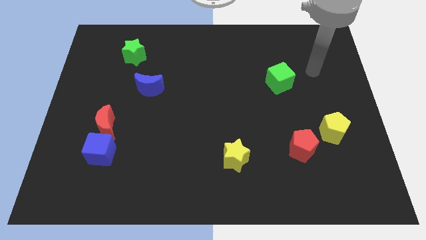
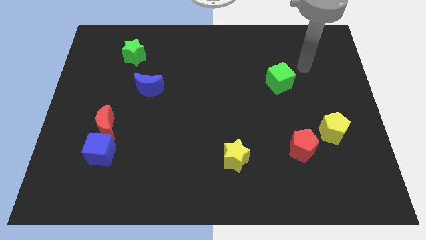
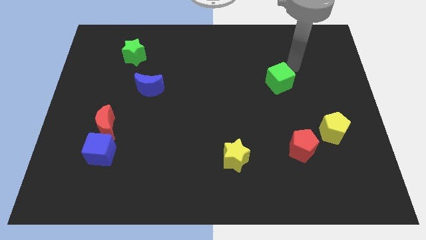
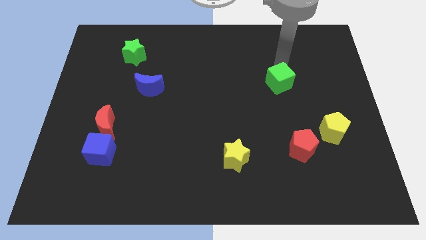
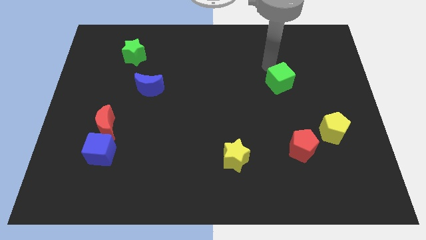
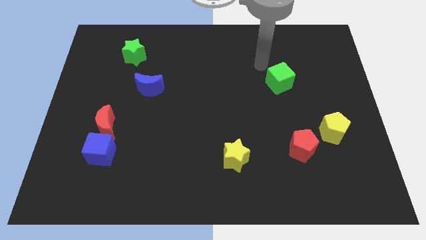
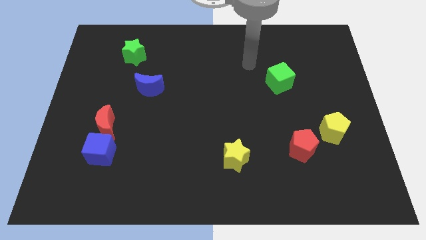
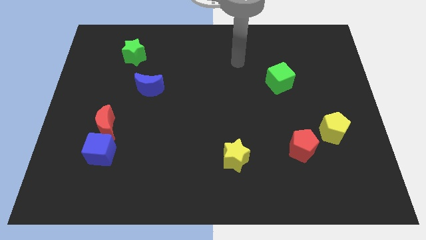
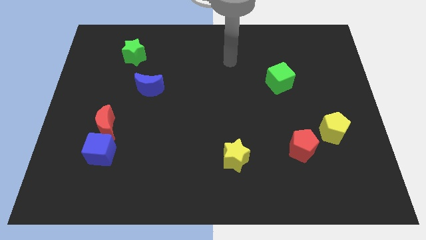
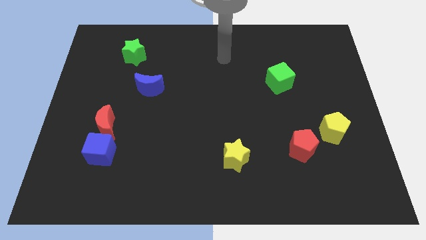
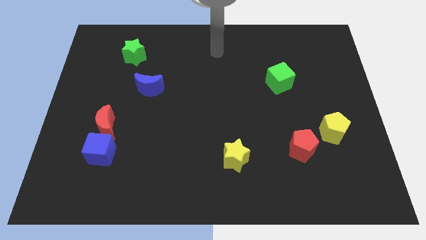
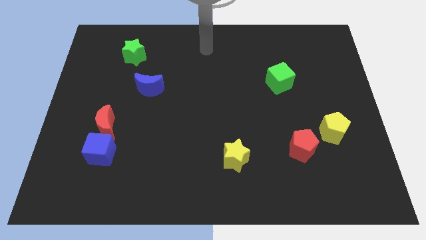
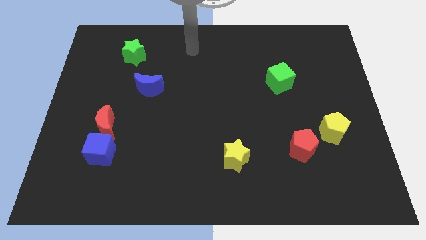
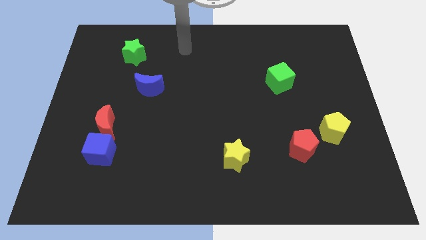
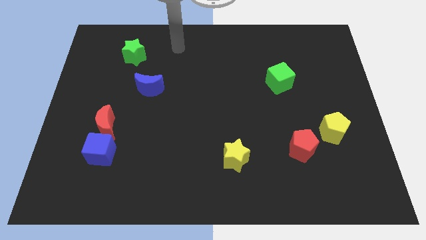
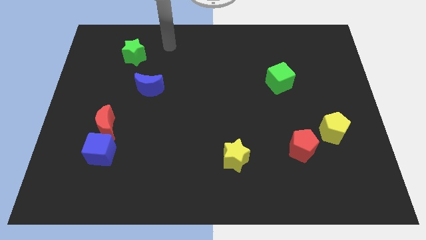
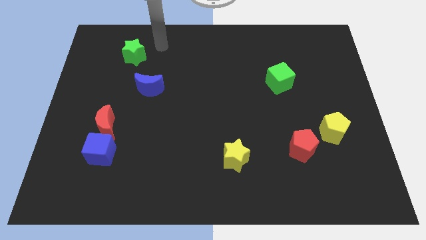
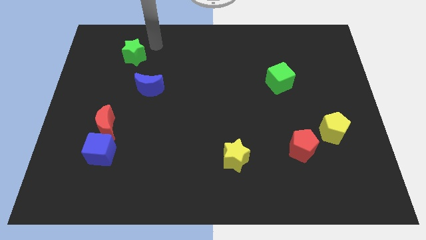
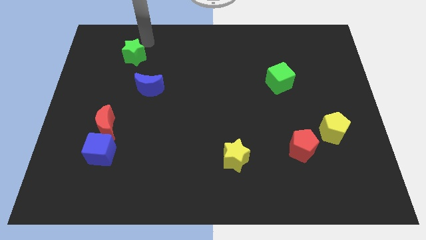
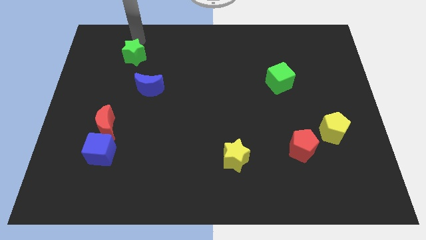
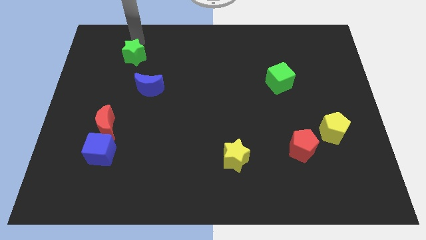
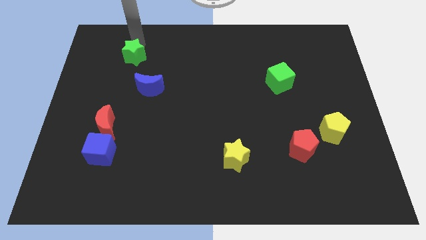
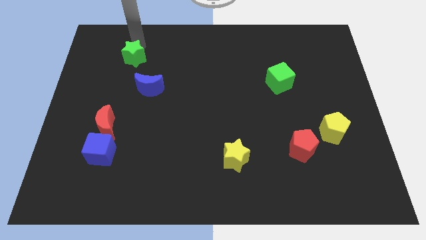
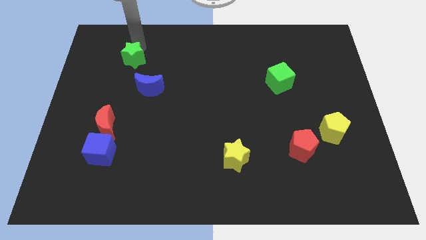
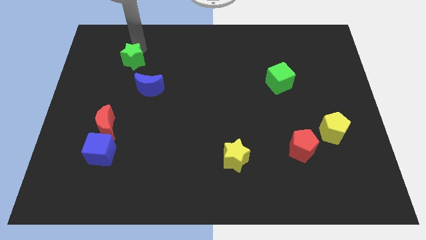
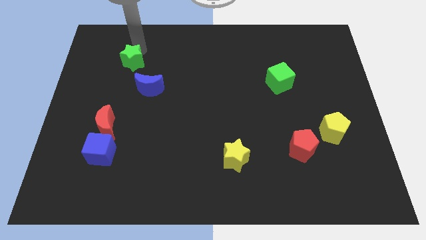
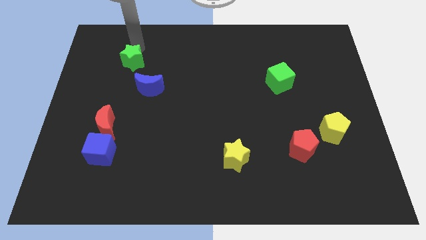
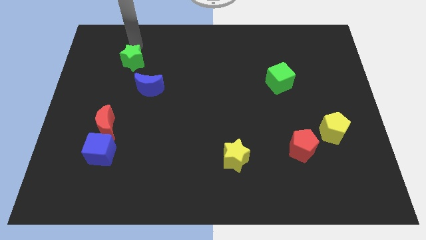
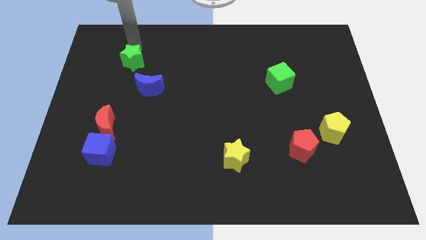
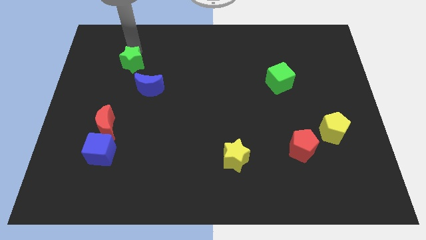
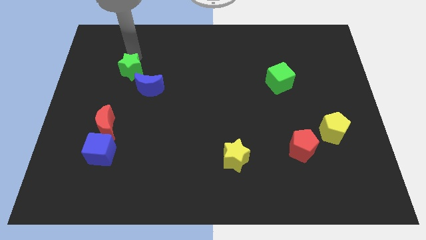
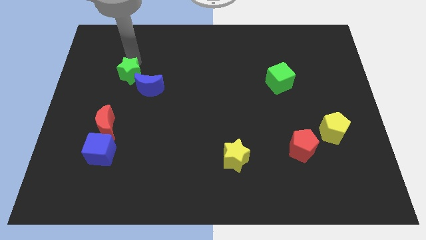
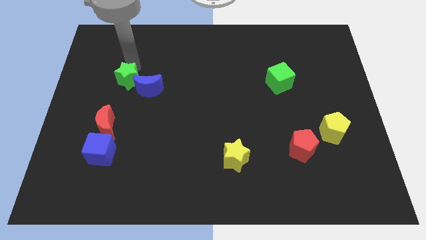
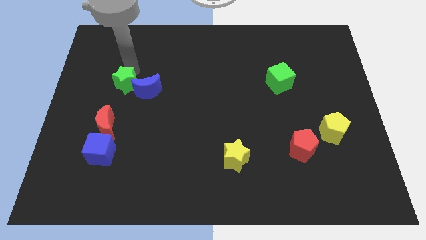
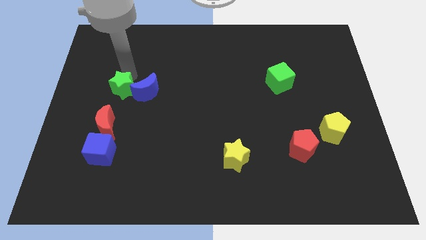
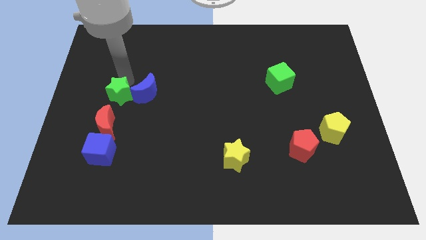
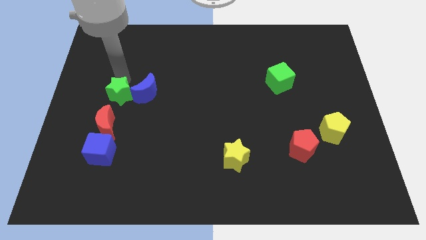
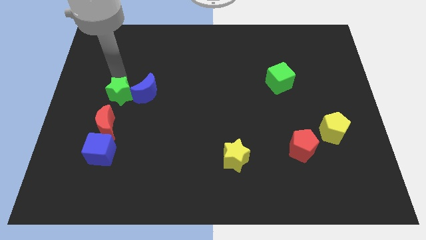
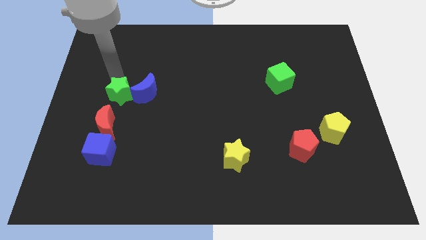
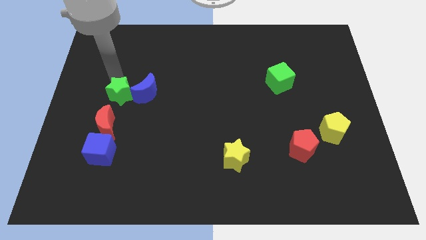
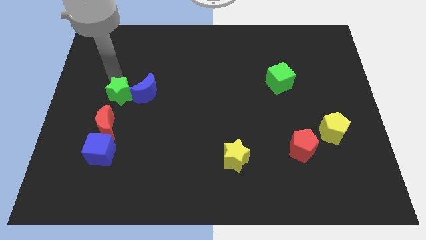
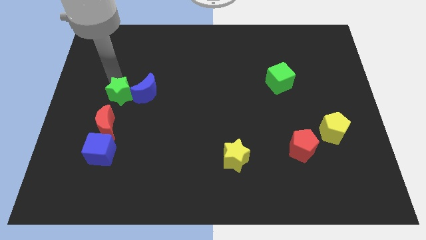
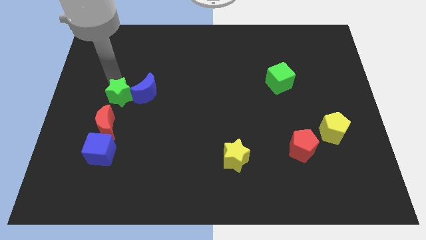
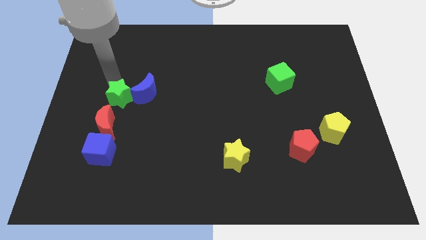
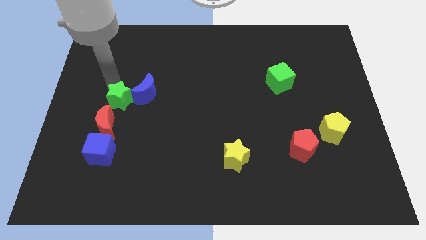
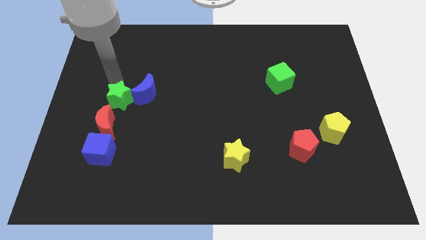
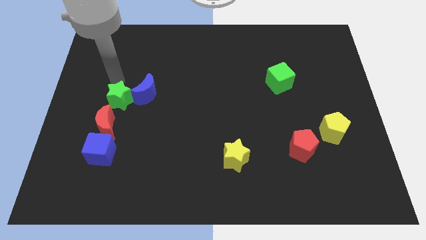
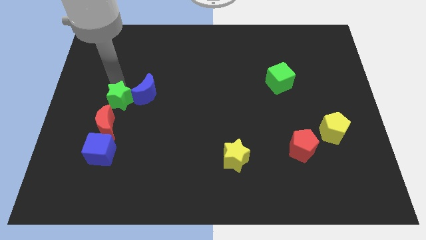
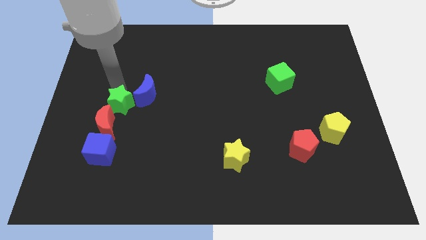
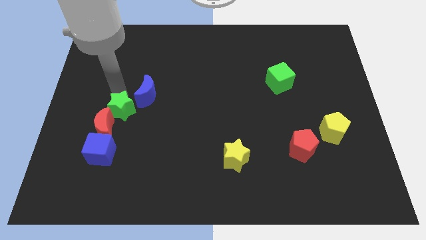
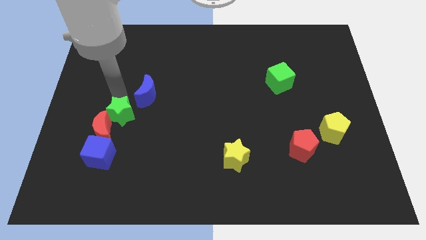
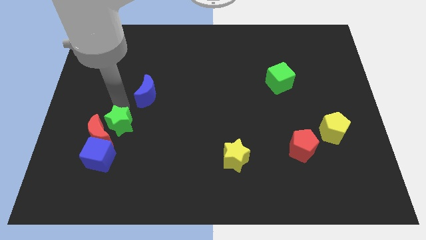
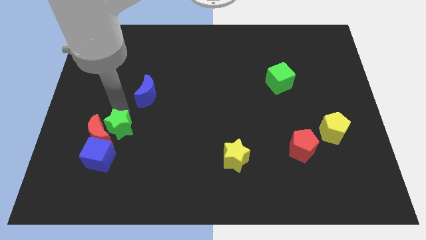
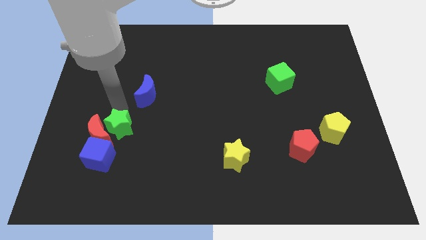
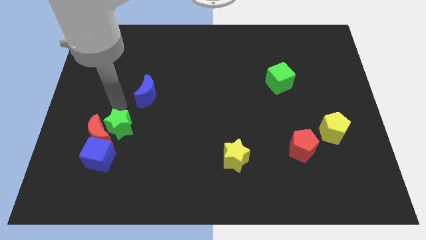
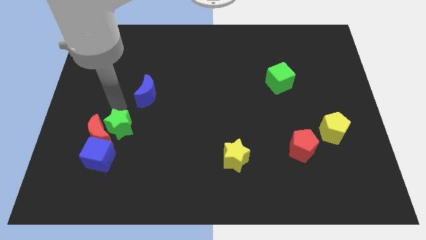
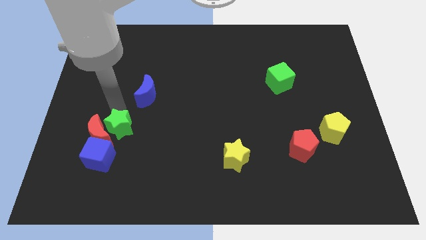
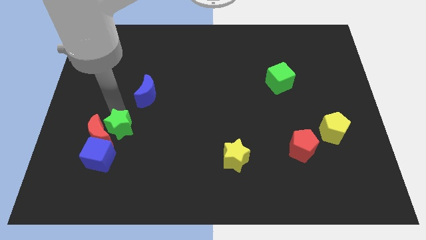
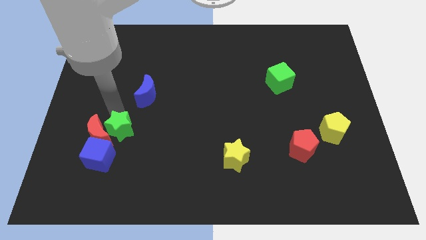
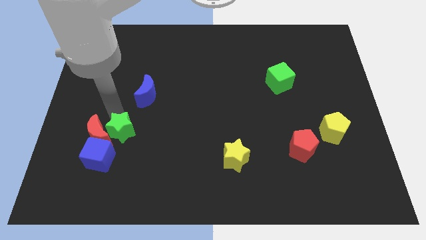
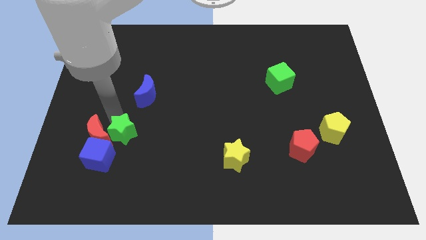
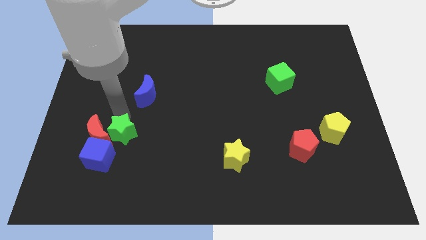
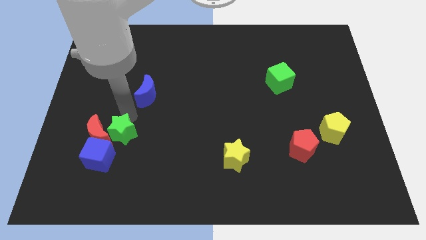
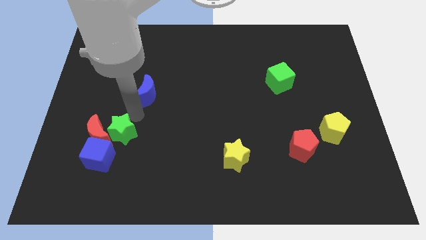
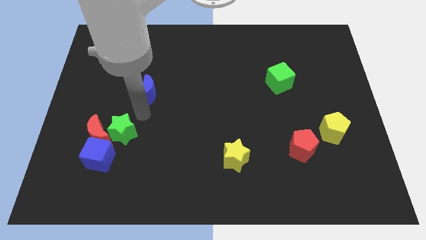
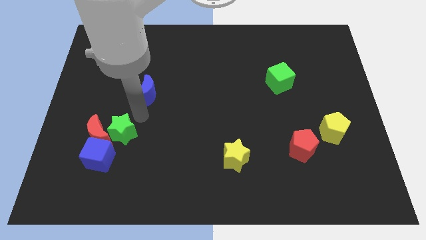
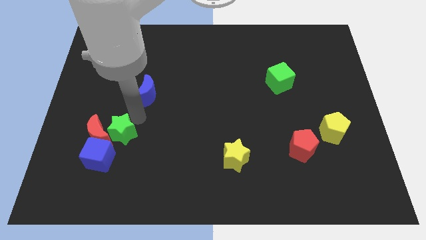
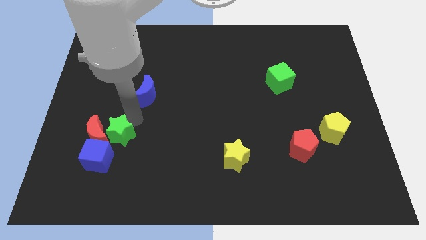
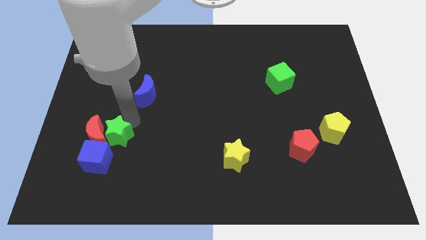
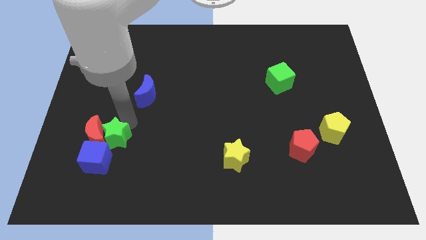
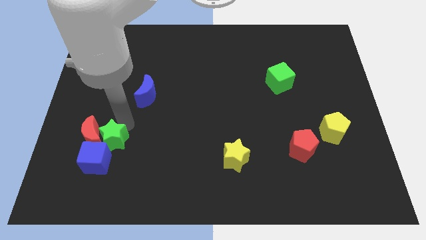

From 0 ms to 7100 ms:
slide the green star to the blue cube
